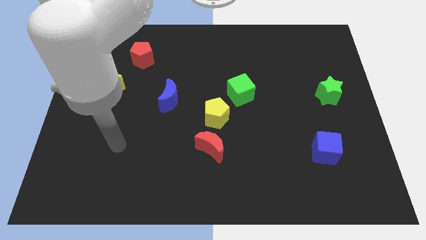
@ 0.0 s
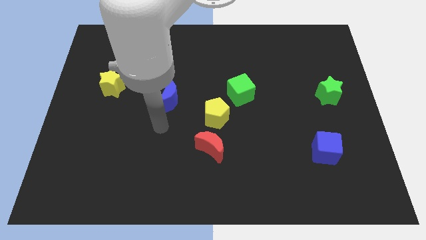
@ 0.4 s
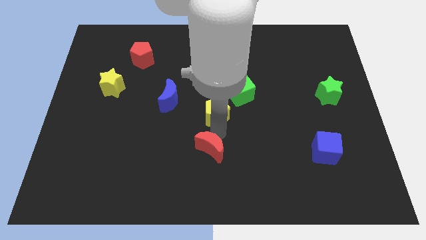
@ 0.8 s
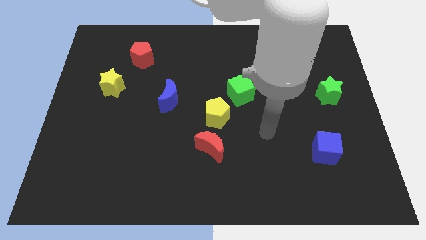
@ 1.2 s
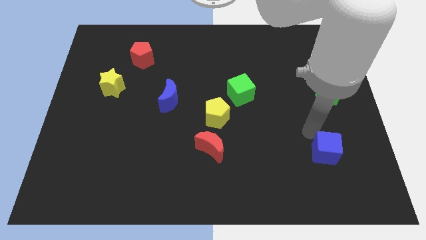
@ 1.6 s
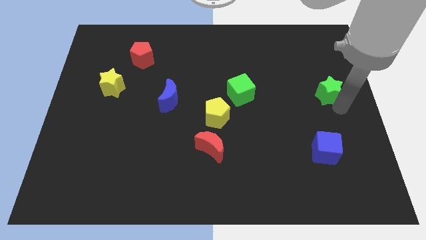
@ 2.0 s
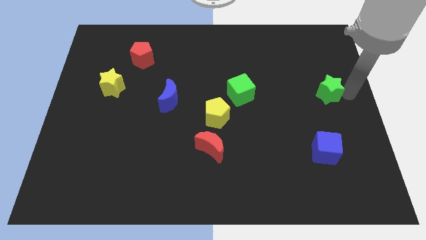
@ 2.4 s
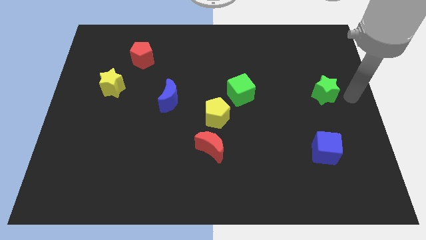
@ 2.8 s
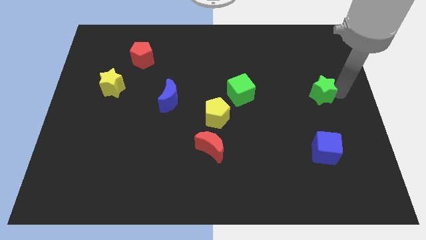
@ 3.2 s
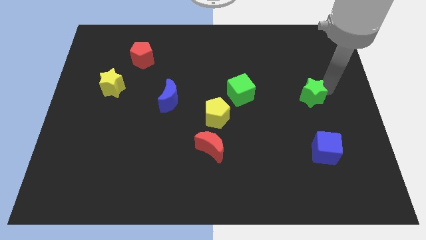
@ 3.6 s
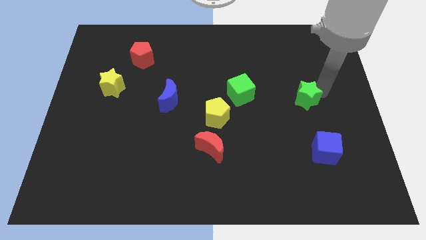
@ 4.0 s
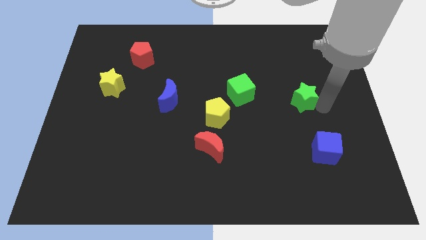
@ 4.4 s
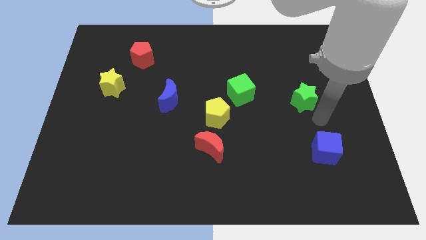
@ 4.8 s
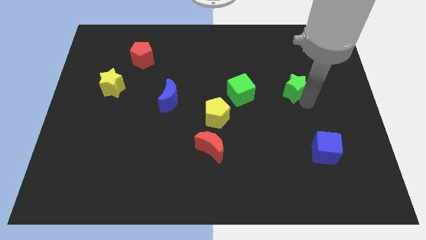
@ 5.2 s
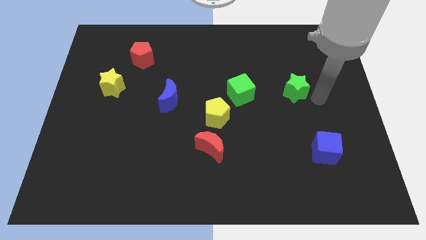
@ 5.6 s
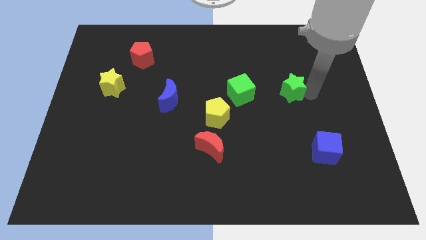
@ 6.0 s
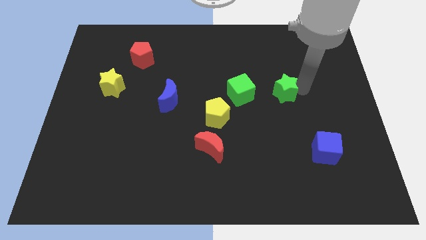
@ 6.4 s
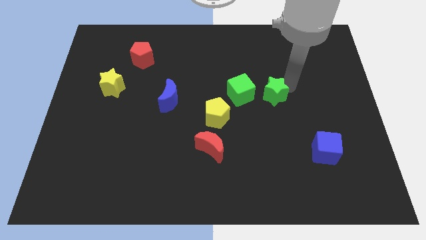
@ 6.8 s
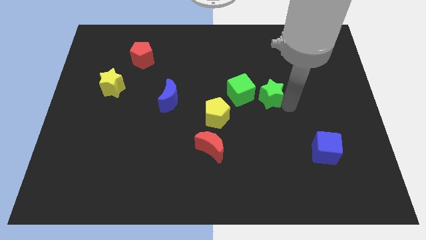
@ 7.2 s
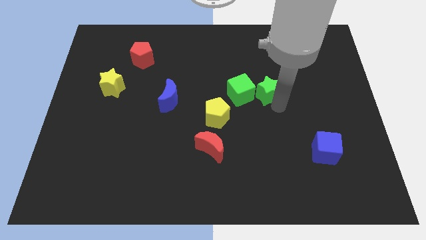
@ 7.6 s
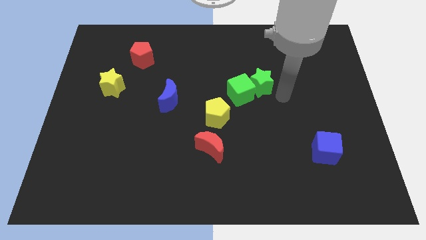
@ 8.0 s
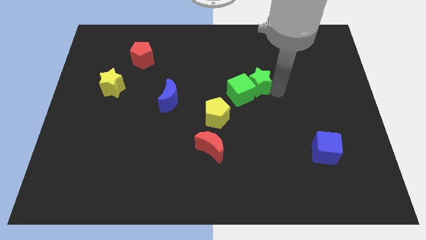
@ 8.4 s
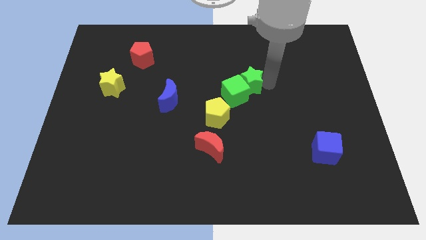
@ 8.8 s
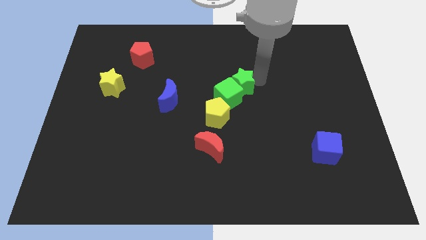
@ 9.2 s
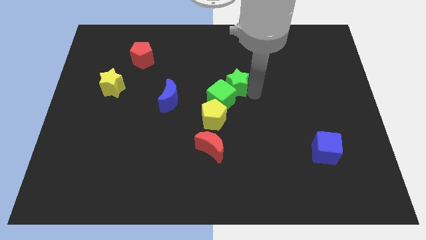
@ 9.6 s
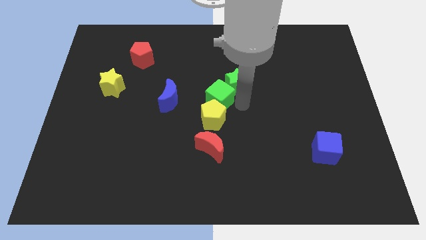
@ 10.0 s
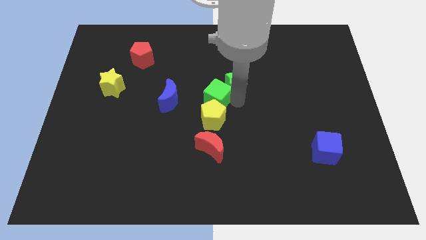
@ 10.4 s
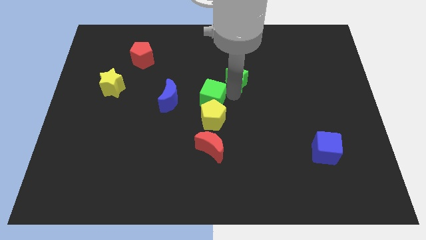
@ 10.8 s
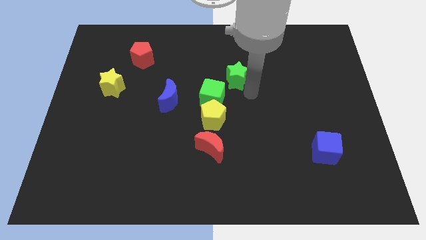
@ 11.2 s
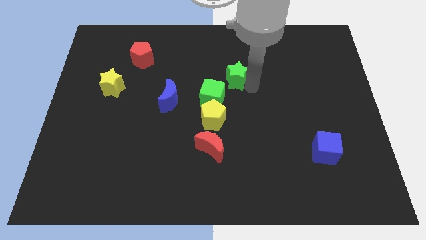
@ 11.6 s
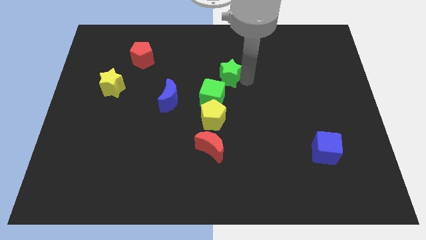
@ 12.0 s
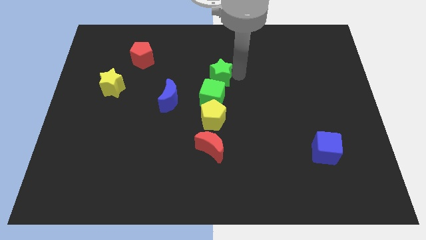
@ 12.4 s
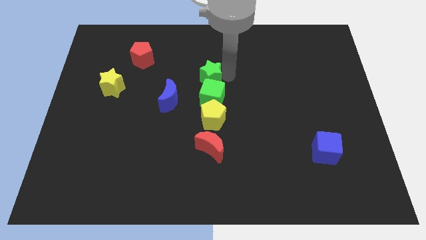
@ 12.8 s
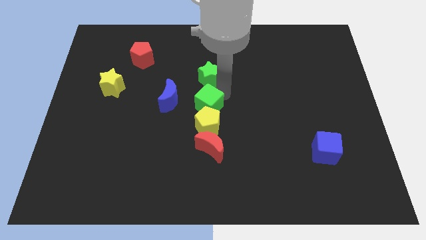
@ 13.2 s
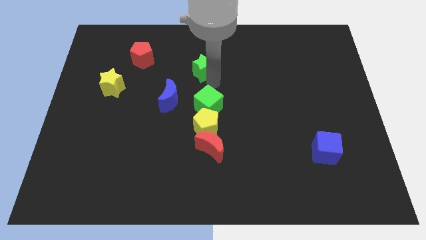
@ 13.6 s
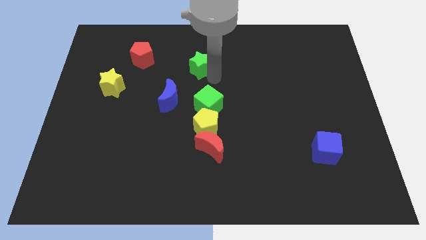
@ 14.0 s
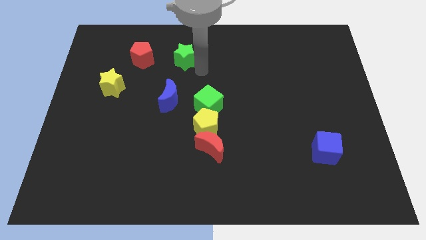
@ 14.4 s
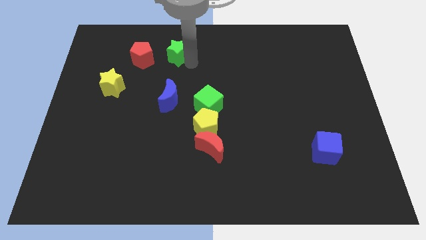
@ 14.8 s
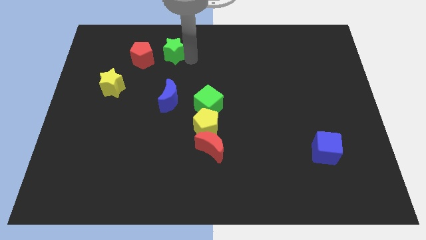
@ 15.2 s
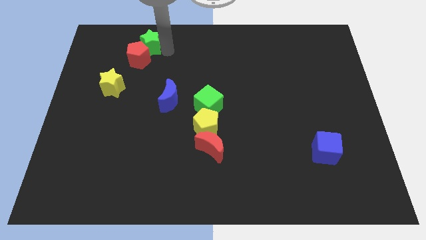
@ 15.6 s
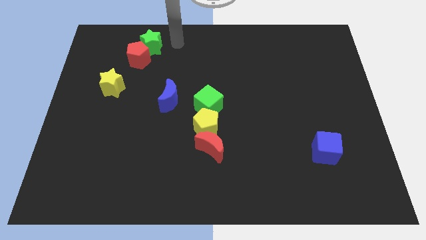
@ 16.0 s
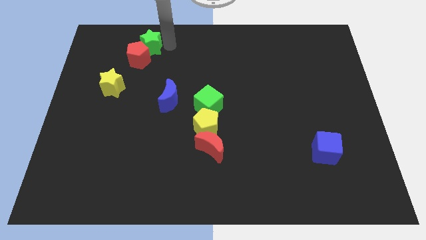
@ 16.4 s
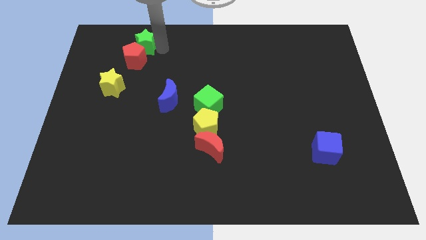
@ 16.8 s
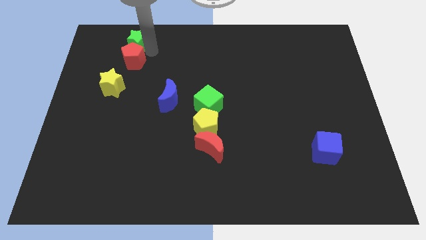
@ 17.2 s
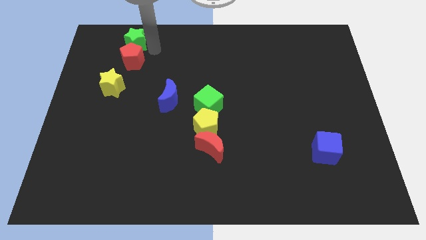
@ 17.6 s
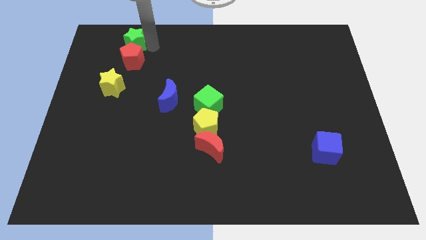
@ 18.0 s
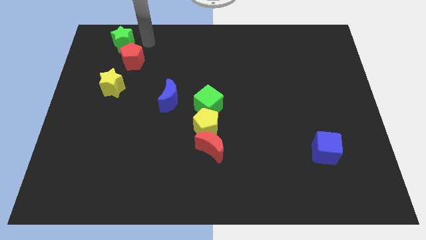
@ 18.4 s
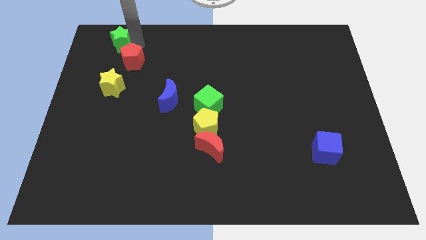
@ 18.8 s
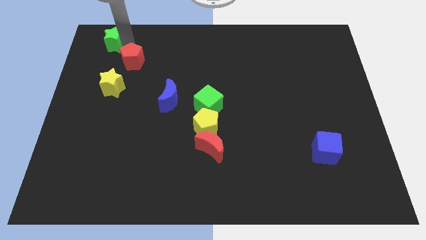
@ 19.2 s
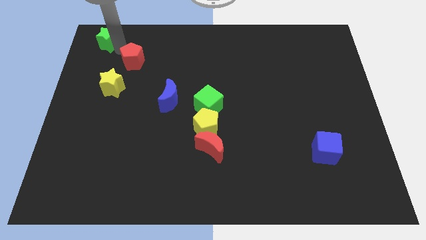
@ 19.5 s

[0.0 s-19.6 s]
put the green star to the top left corner
